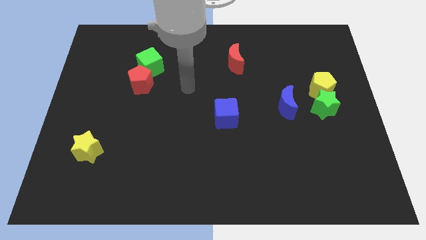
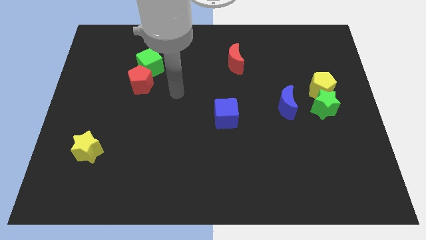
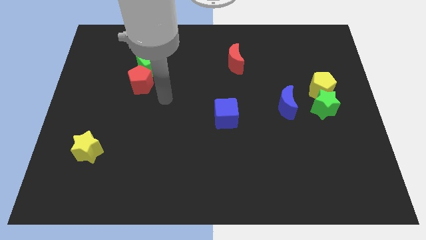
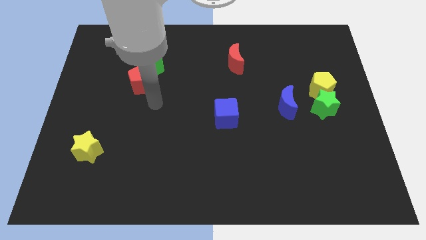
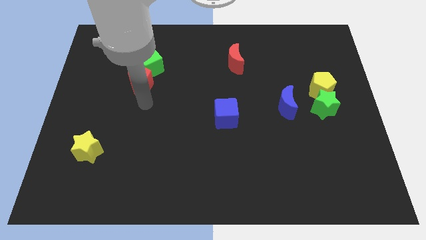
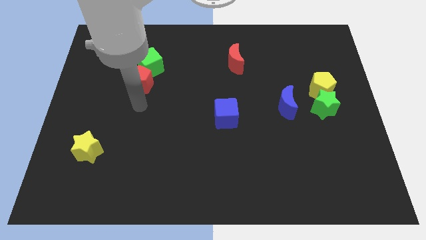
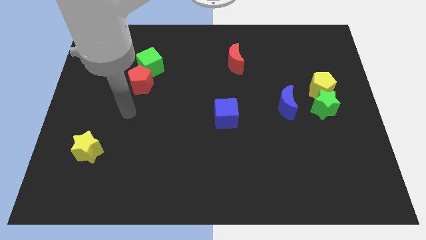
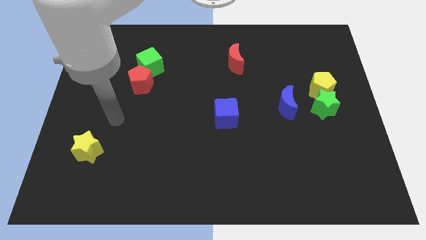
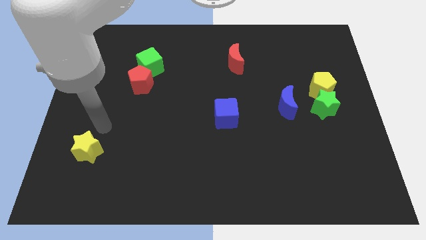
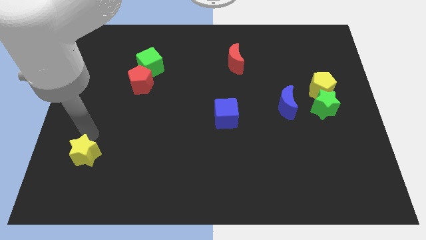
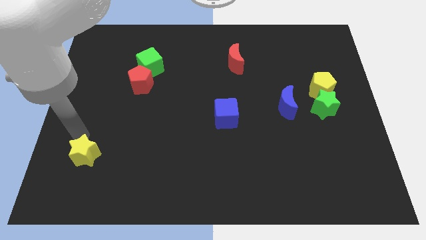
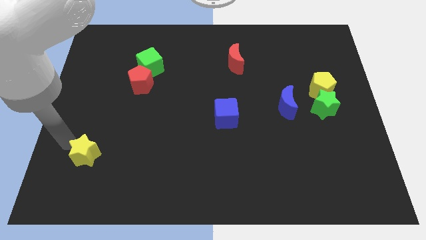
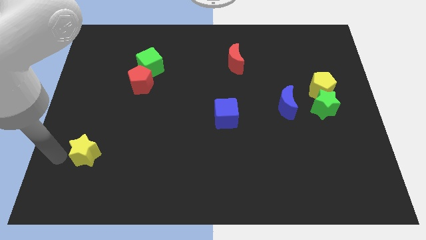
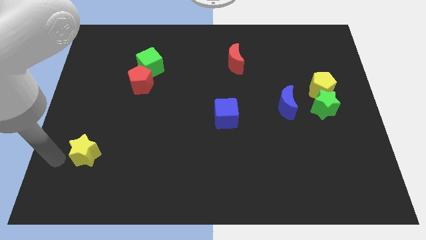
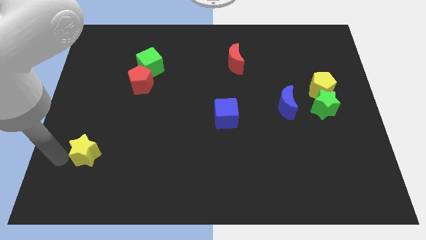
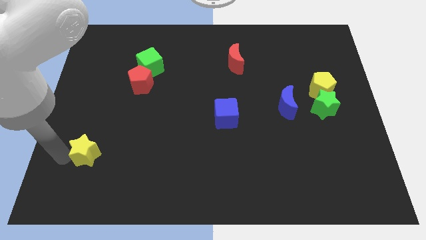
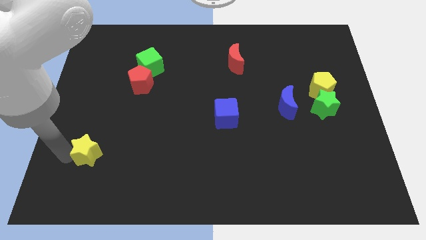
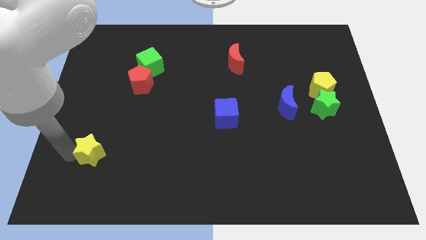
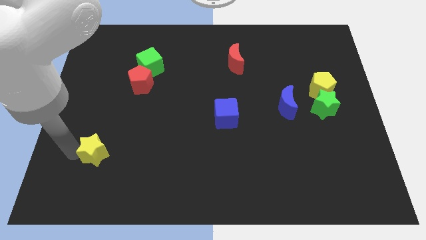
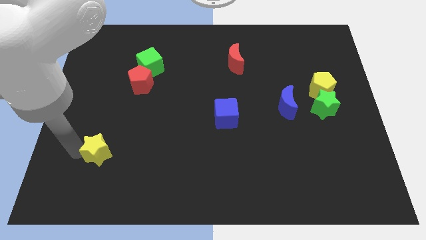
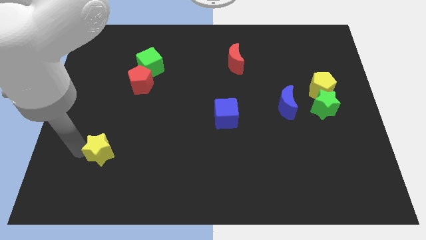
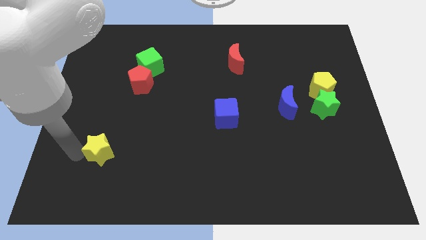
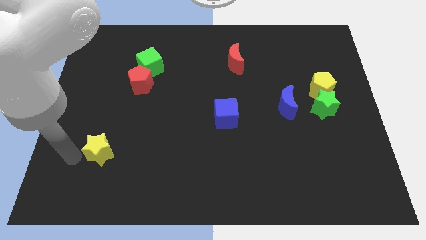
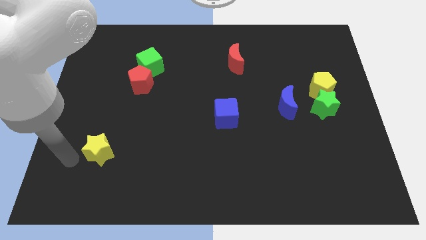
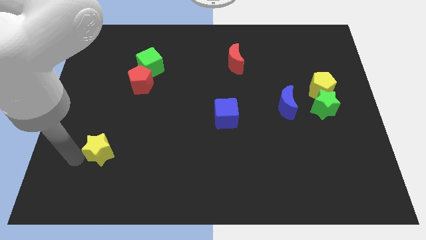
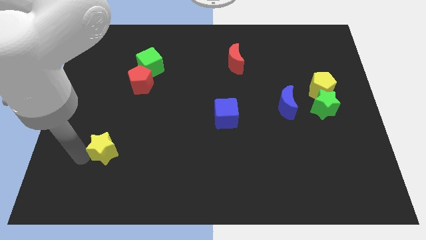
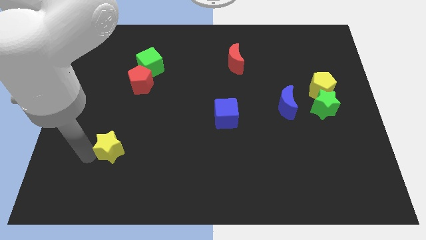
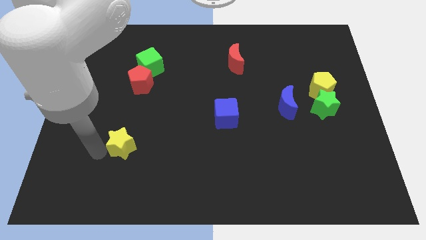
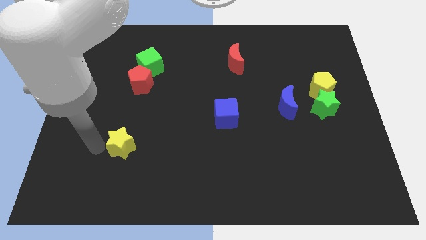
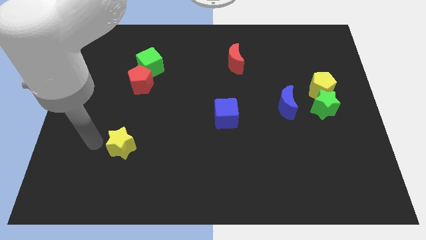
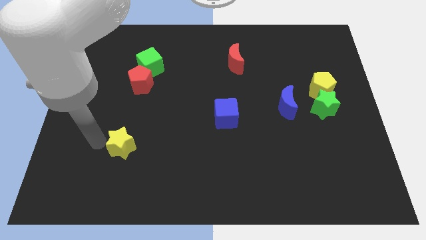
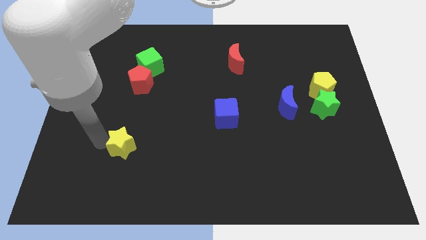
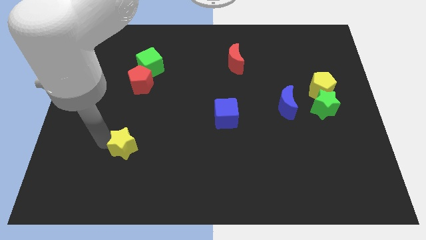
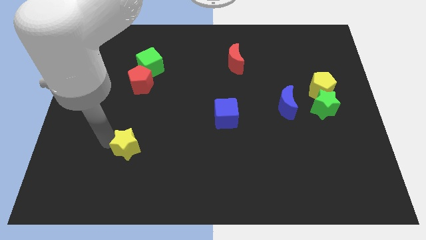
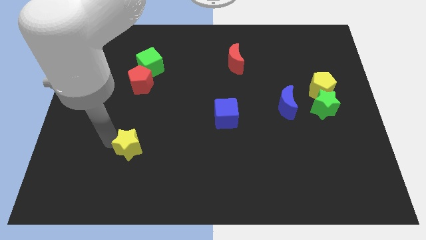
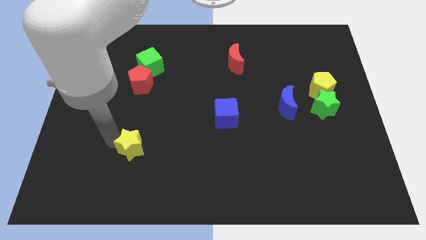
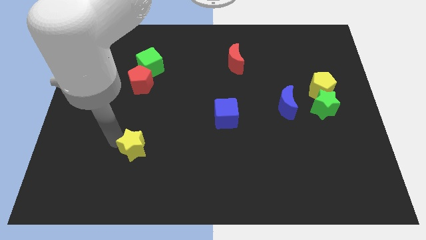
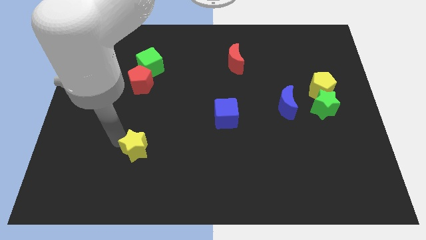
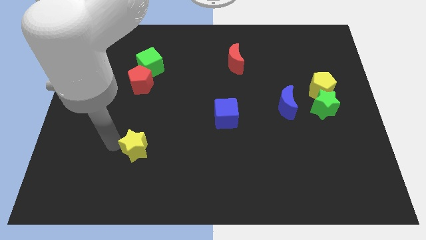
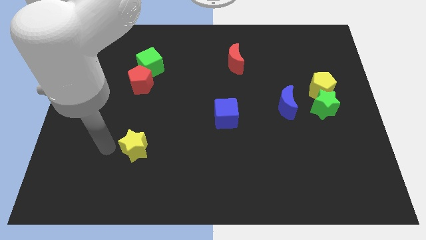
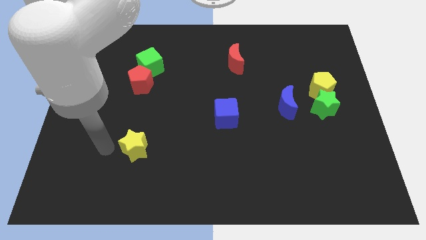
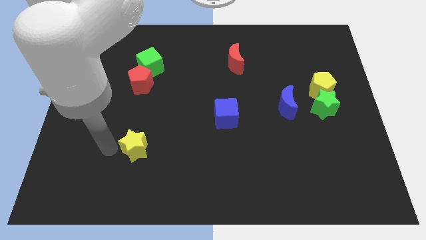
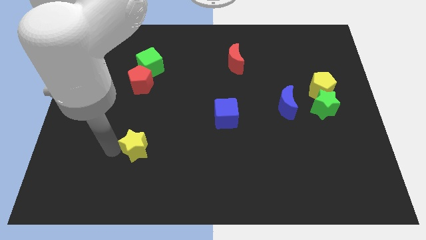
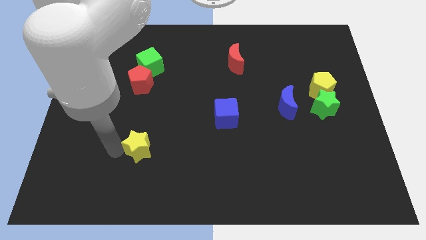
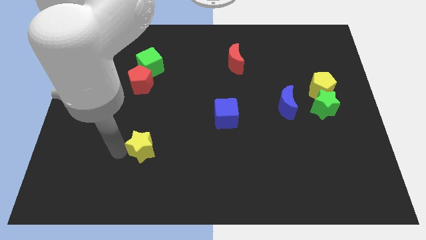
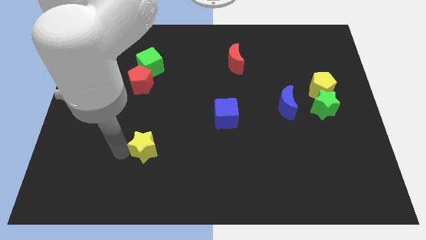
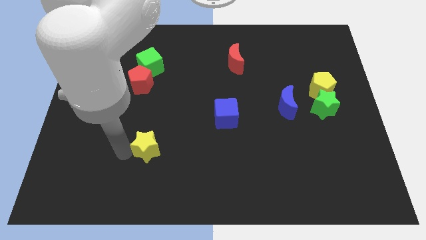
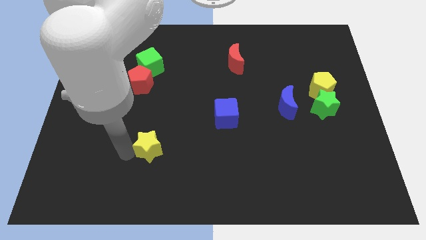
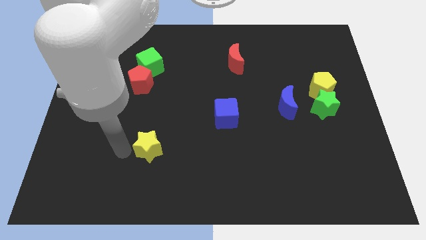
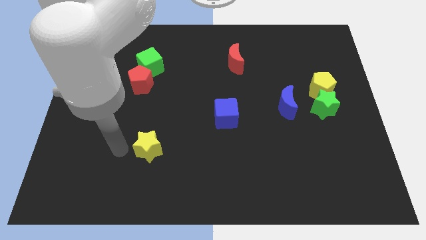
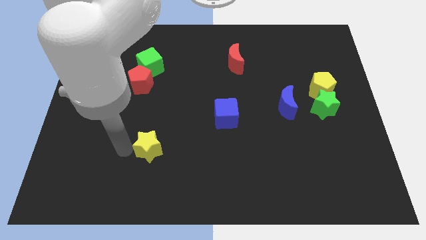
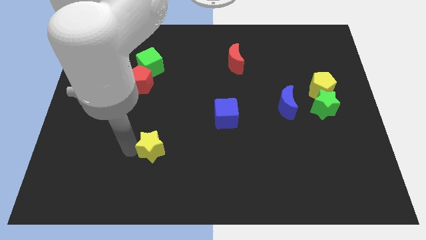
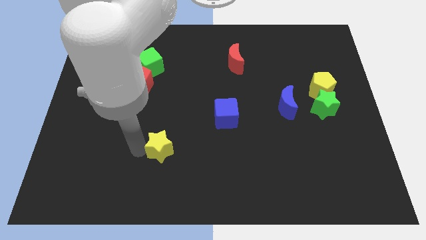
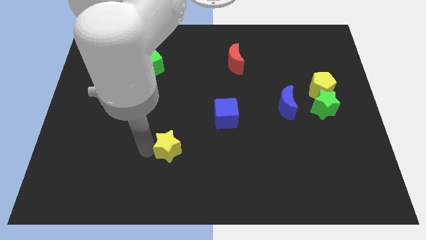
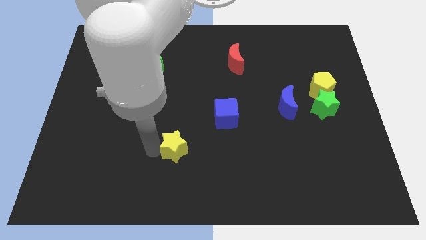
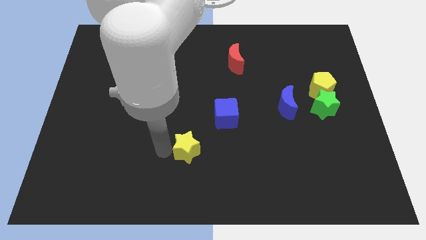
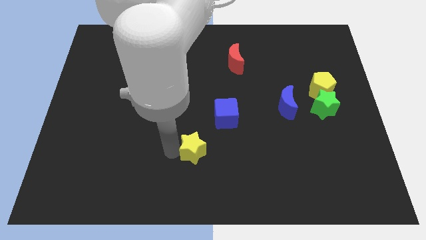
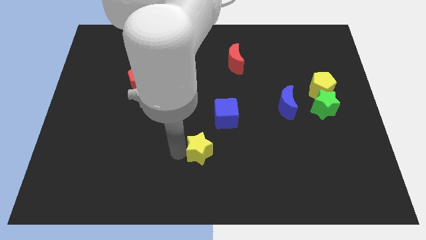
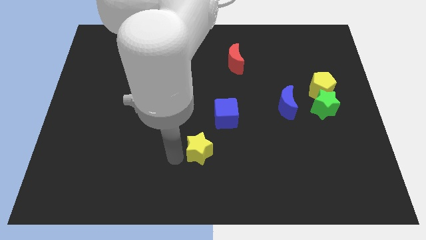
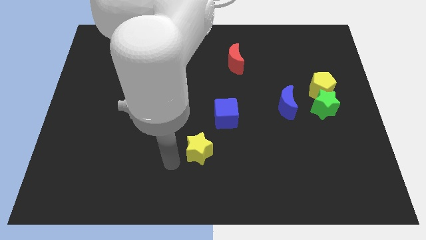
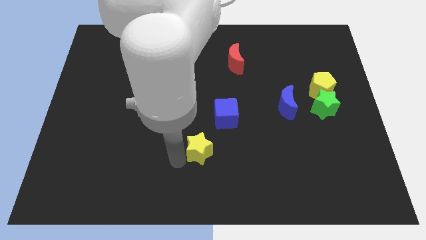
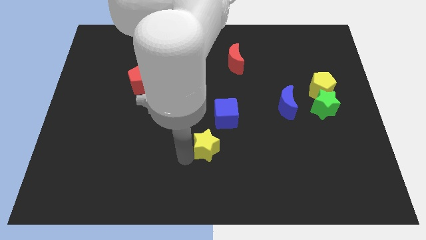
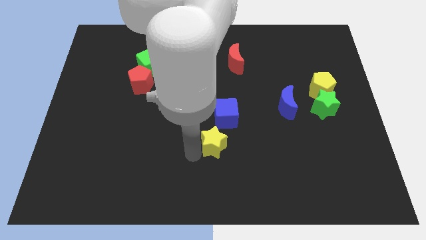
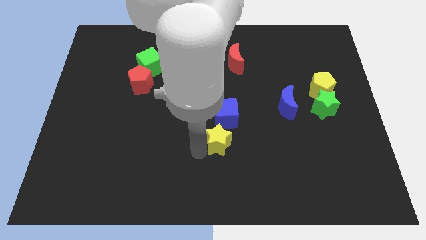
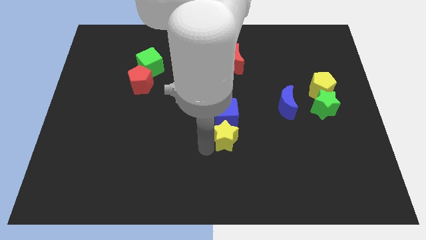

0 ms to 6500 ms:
put the yellow star to the bottom right of the blue cube
